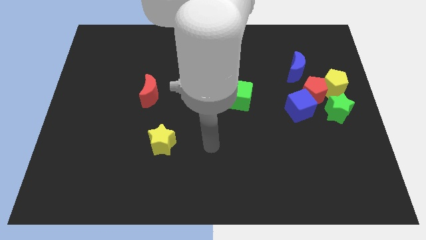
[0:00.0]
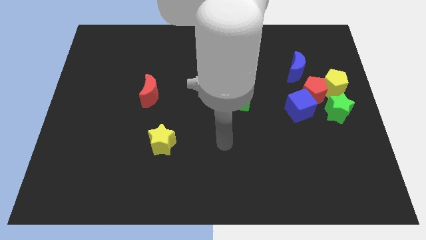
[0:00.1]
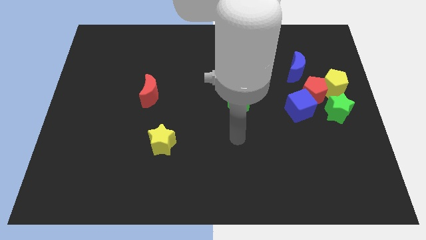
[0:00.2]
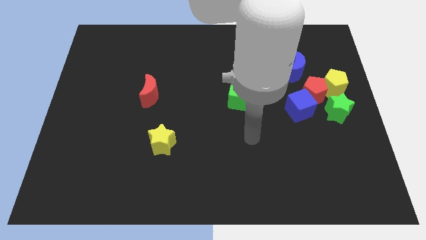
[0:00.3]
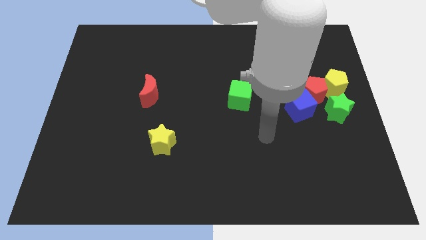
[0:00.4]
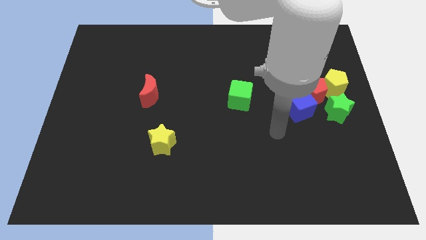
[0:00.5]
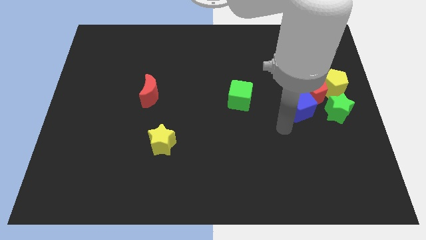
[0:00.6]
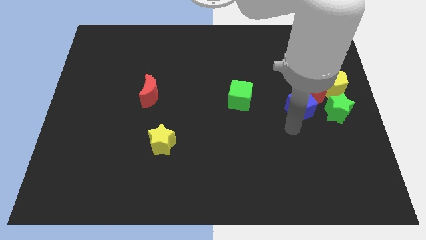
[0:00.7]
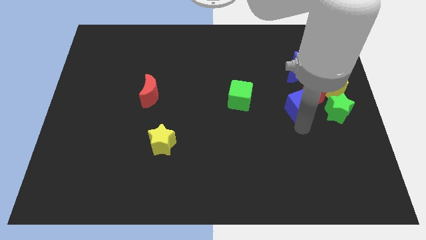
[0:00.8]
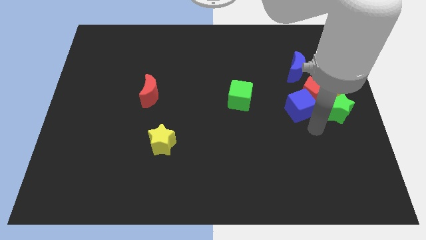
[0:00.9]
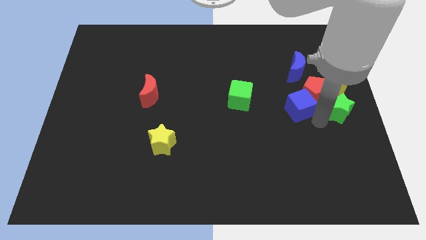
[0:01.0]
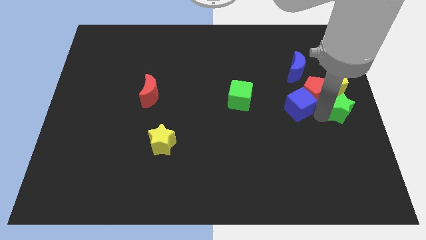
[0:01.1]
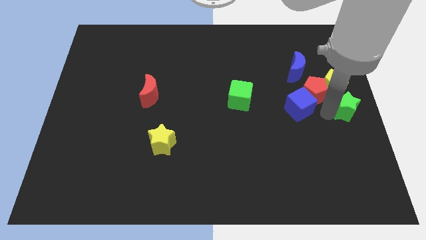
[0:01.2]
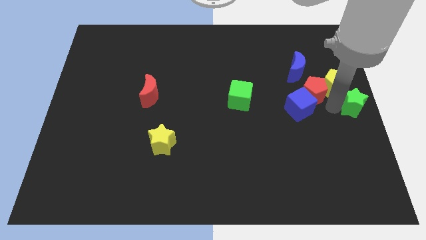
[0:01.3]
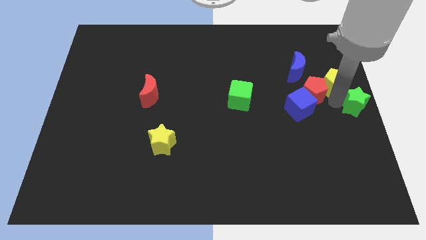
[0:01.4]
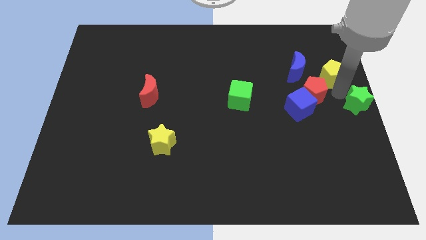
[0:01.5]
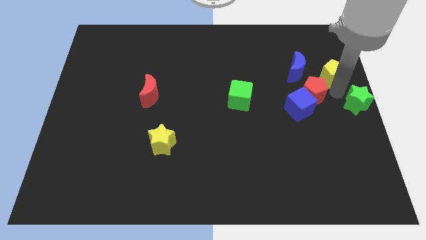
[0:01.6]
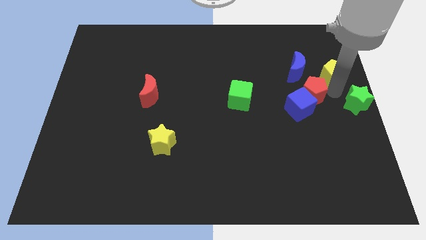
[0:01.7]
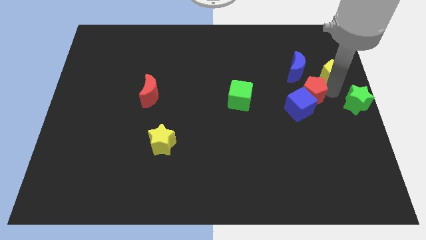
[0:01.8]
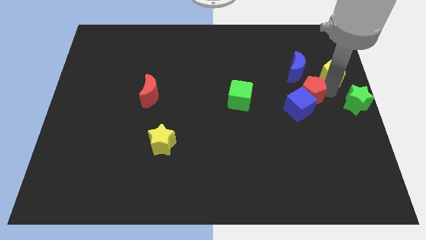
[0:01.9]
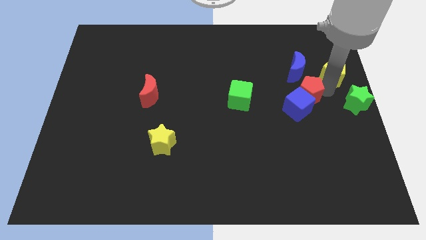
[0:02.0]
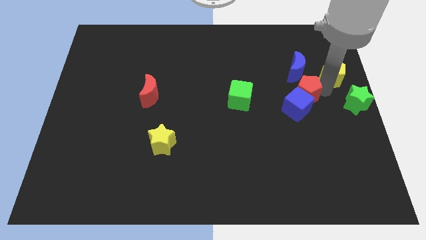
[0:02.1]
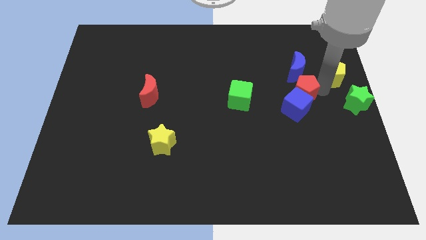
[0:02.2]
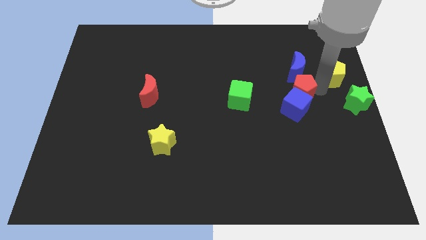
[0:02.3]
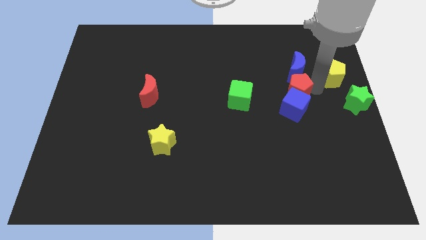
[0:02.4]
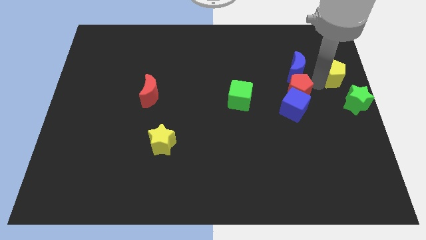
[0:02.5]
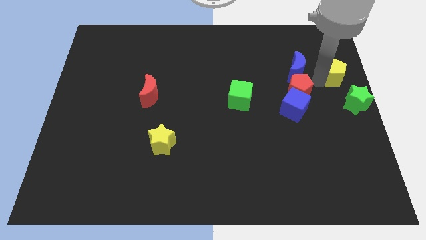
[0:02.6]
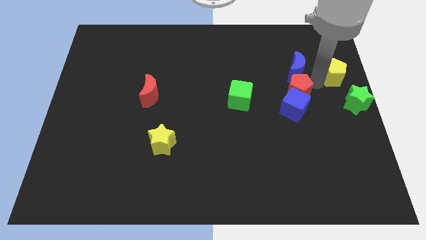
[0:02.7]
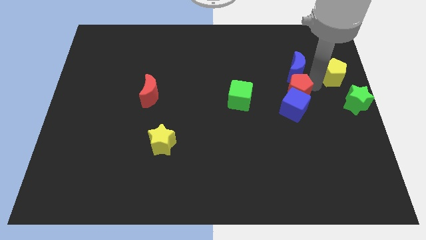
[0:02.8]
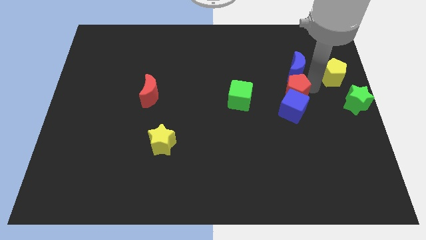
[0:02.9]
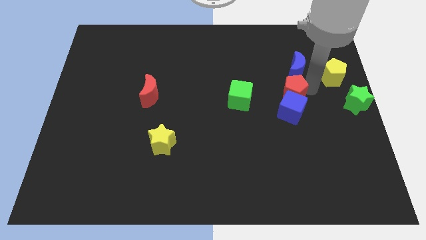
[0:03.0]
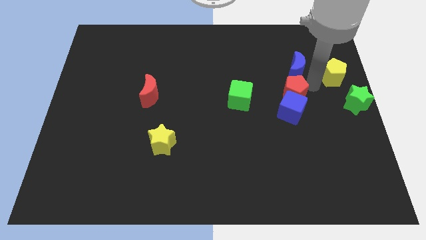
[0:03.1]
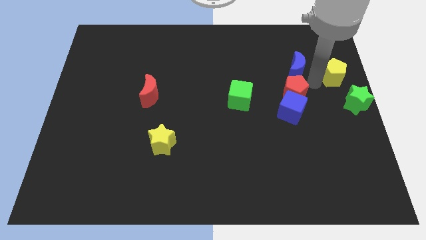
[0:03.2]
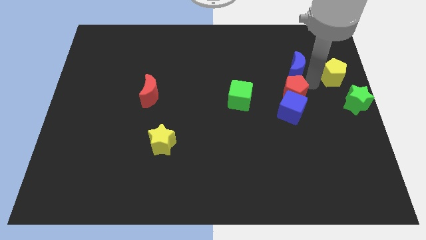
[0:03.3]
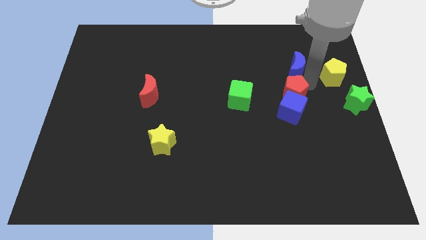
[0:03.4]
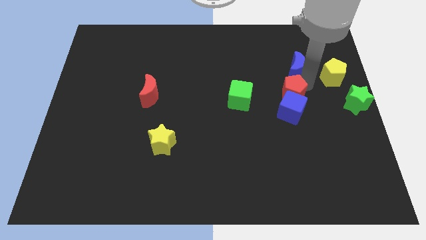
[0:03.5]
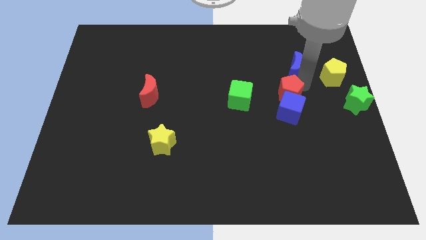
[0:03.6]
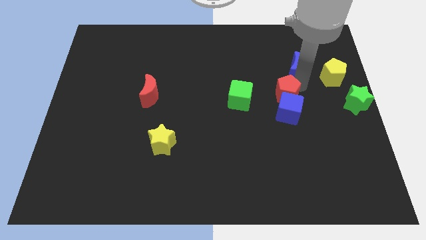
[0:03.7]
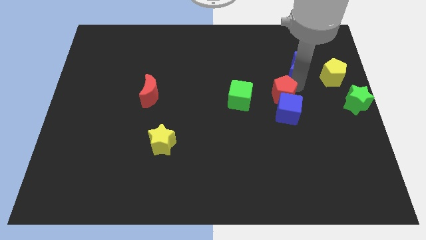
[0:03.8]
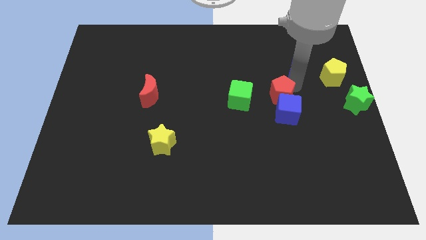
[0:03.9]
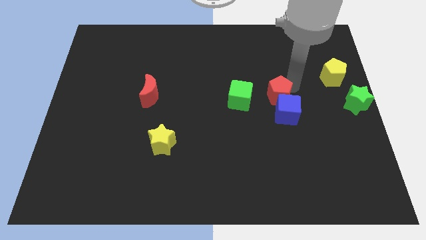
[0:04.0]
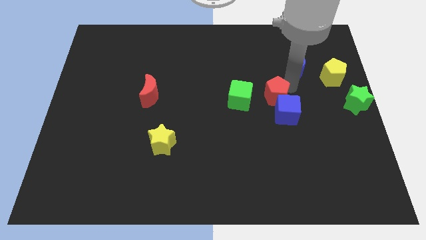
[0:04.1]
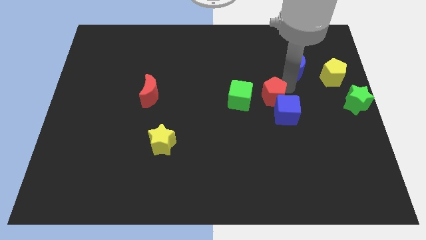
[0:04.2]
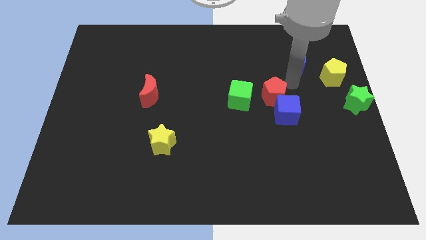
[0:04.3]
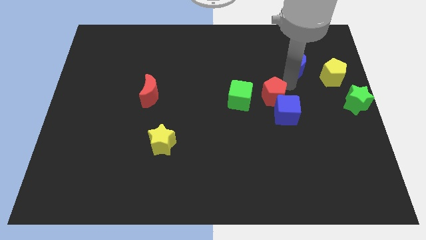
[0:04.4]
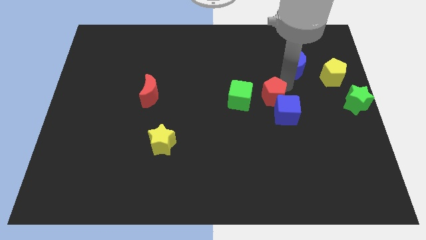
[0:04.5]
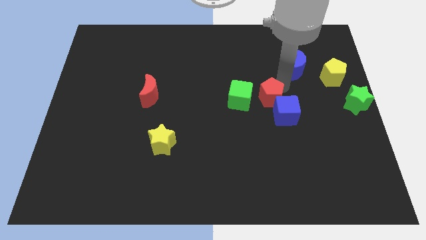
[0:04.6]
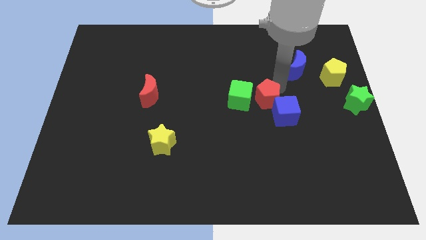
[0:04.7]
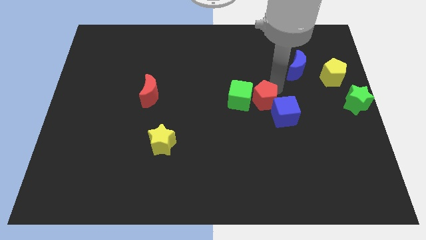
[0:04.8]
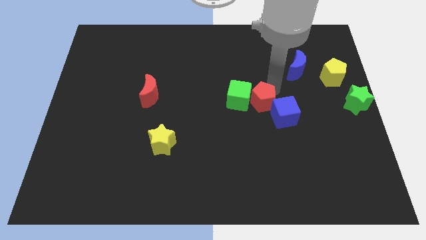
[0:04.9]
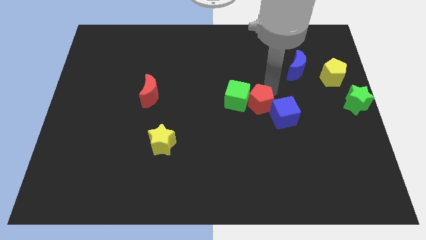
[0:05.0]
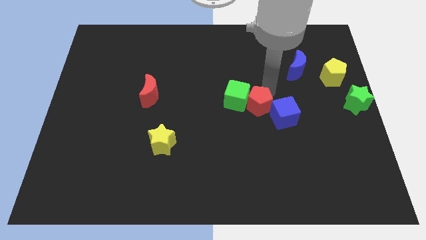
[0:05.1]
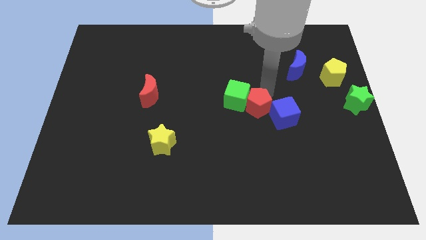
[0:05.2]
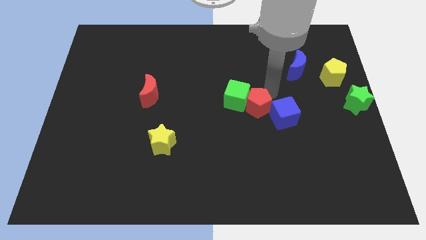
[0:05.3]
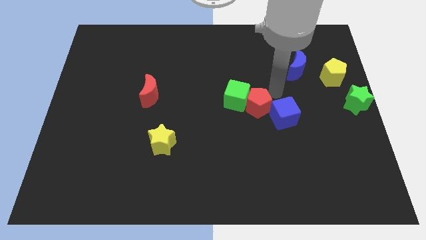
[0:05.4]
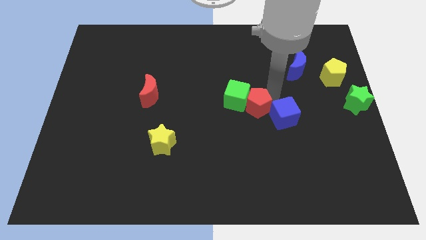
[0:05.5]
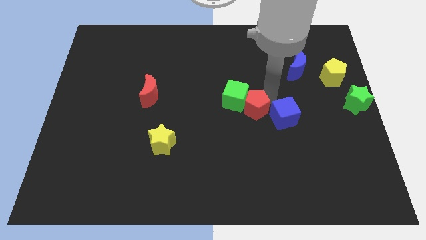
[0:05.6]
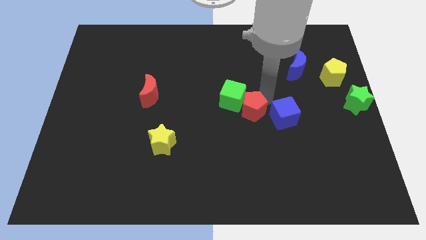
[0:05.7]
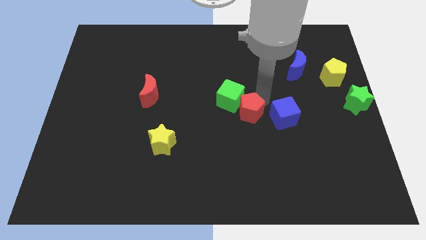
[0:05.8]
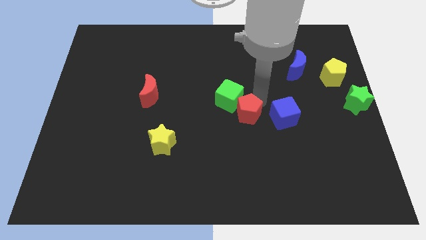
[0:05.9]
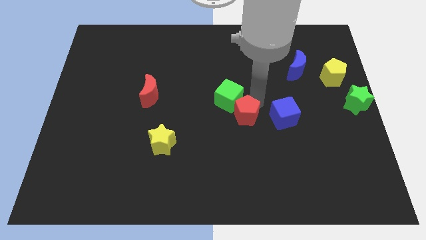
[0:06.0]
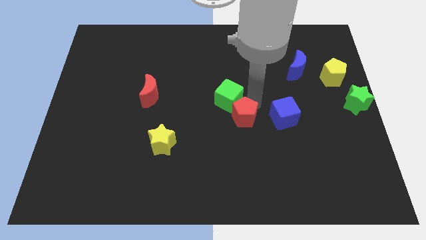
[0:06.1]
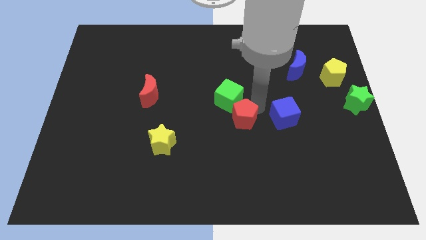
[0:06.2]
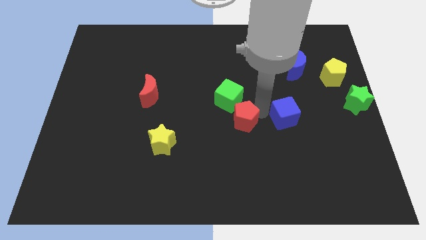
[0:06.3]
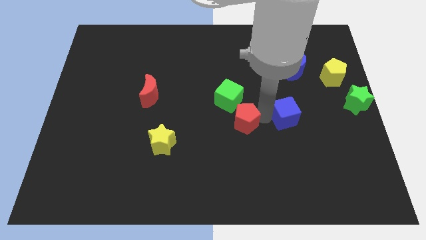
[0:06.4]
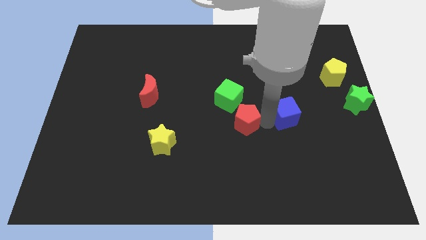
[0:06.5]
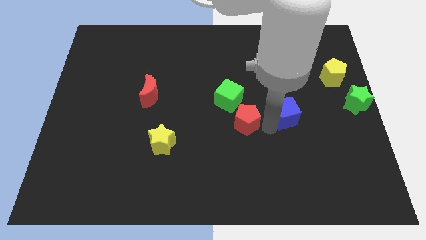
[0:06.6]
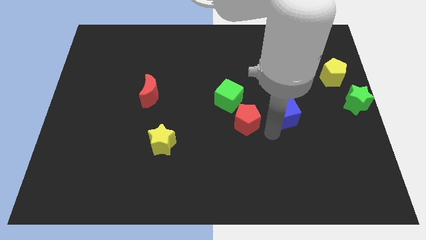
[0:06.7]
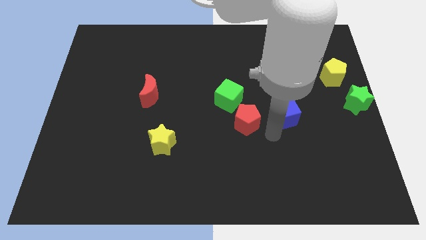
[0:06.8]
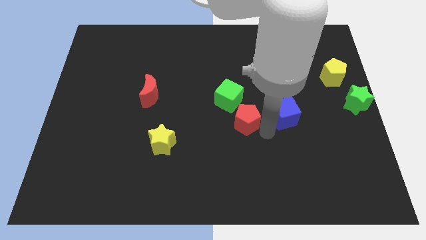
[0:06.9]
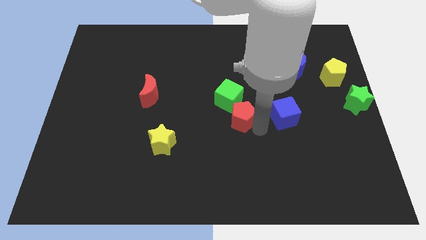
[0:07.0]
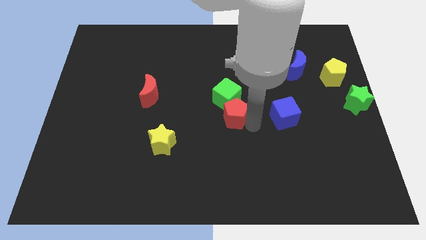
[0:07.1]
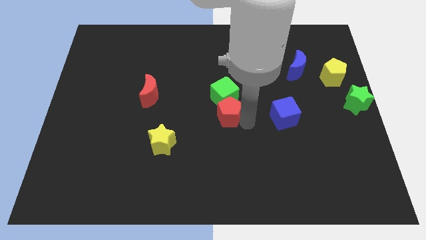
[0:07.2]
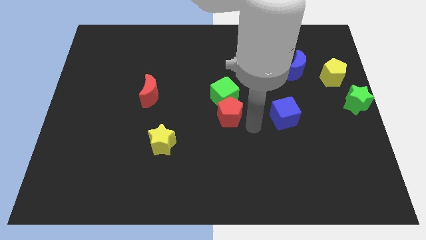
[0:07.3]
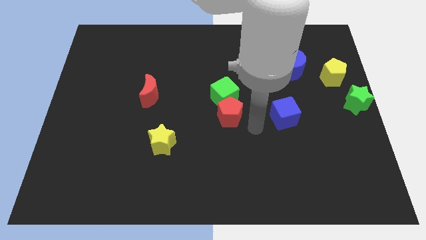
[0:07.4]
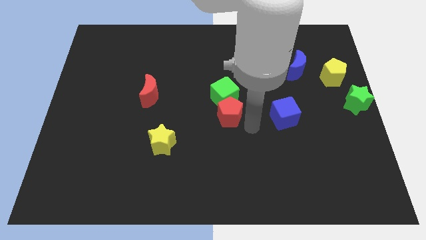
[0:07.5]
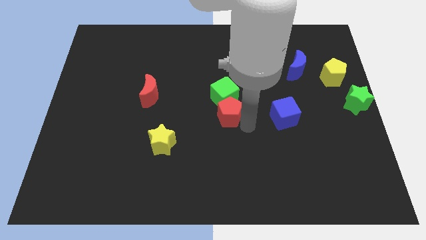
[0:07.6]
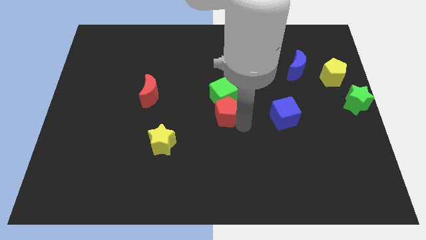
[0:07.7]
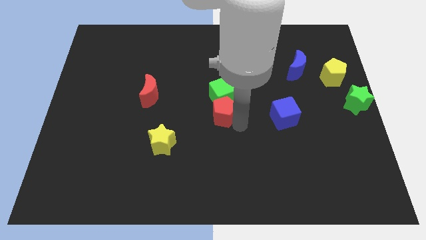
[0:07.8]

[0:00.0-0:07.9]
slide the red pentagon to the left

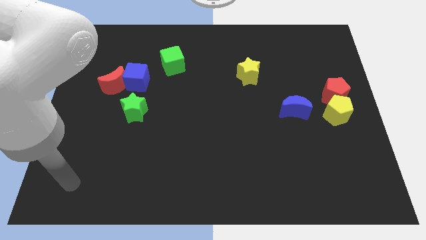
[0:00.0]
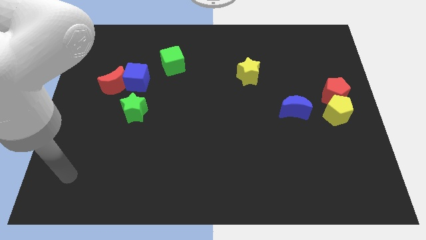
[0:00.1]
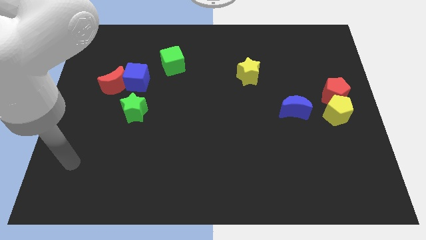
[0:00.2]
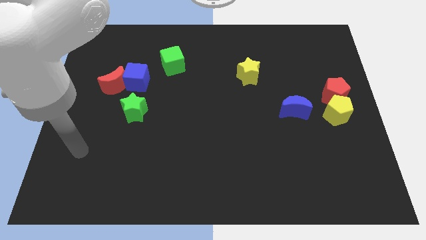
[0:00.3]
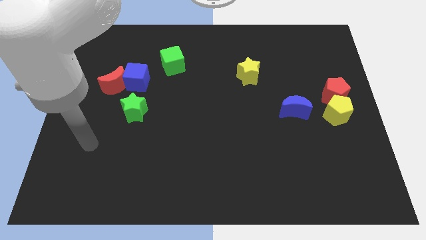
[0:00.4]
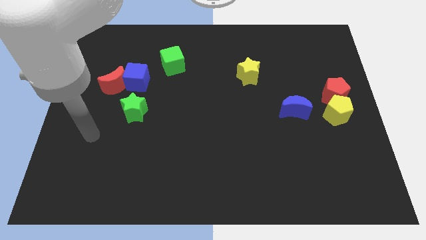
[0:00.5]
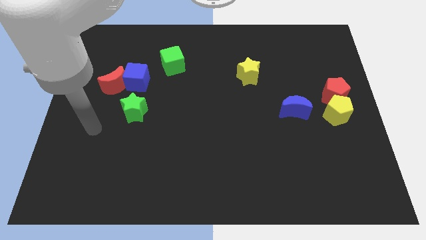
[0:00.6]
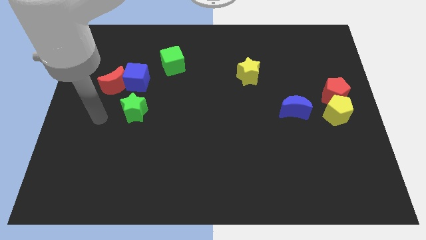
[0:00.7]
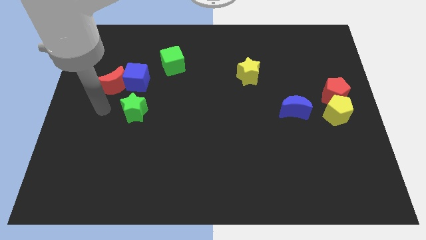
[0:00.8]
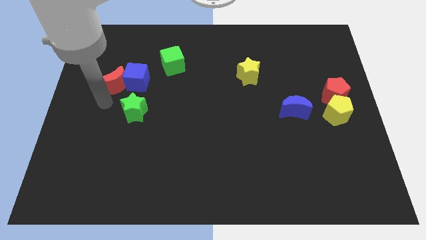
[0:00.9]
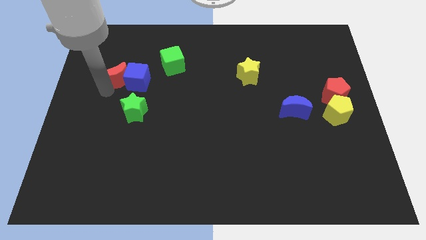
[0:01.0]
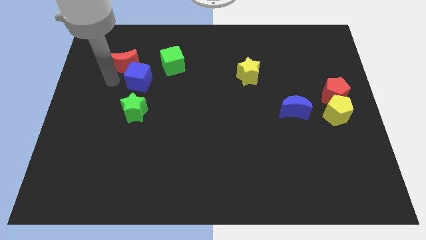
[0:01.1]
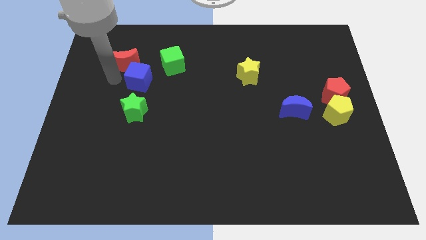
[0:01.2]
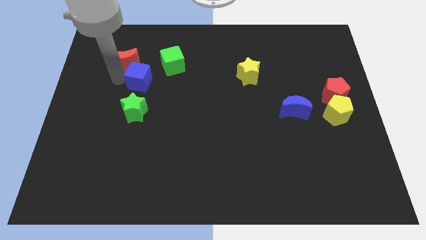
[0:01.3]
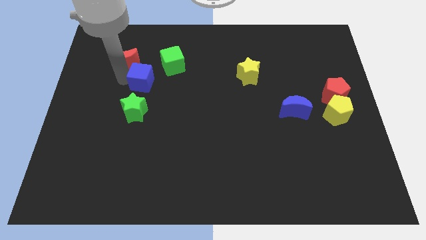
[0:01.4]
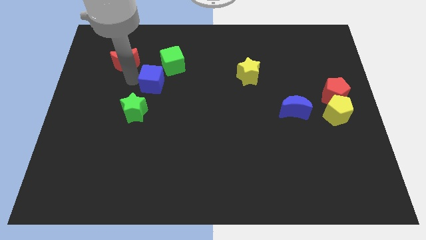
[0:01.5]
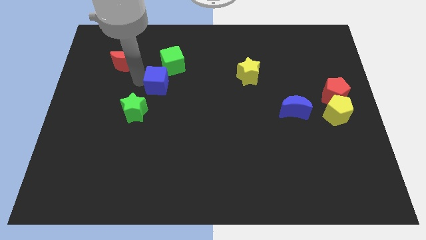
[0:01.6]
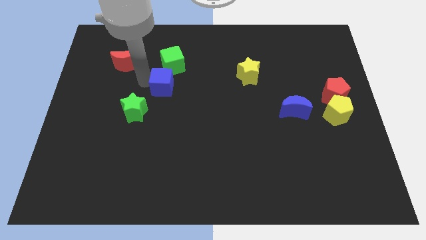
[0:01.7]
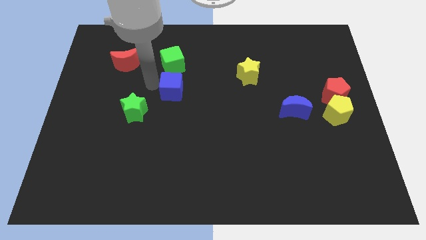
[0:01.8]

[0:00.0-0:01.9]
slide the blue cube right slightly
